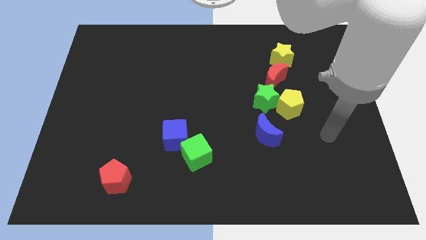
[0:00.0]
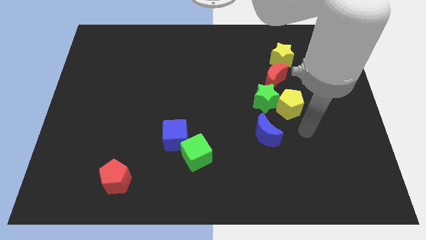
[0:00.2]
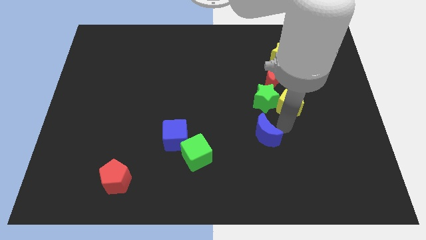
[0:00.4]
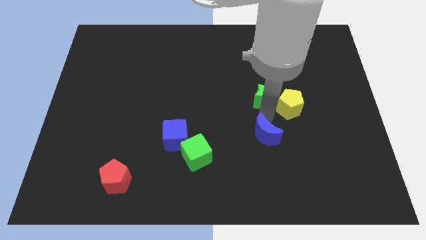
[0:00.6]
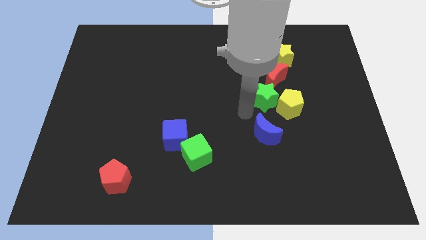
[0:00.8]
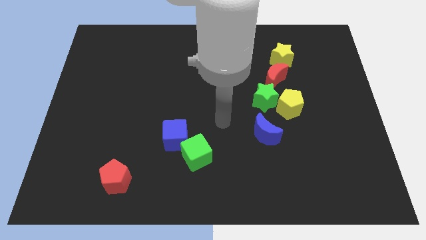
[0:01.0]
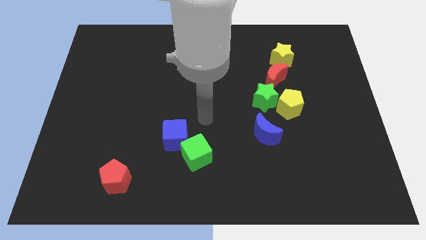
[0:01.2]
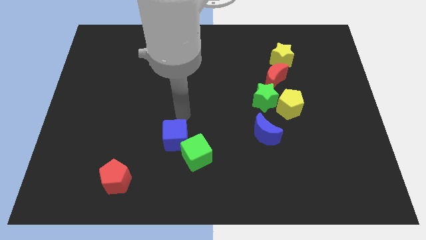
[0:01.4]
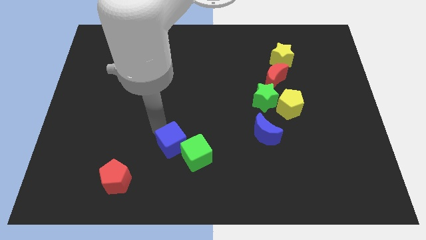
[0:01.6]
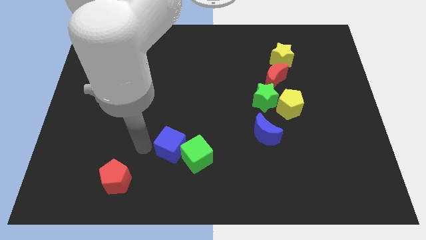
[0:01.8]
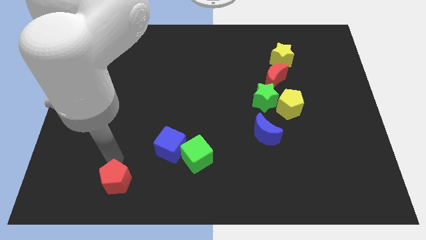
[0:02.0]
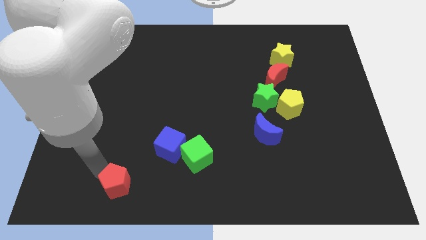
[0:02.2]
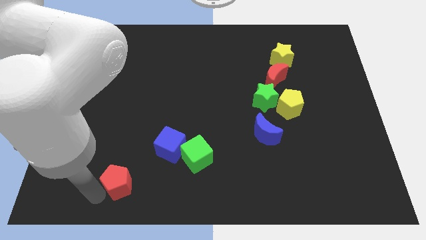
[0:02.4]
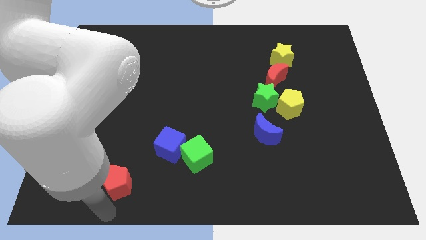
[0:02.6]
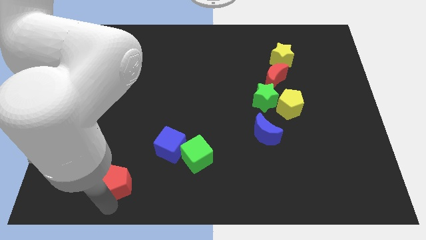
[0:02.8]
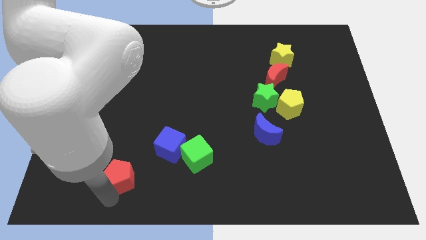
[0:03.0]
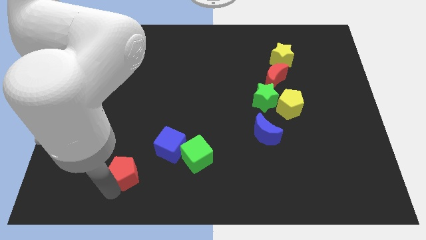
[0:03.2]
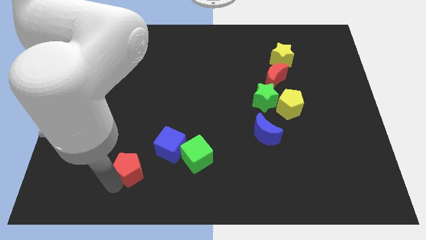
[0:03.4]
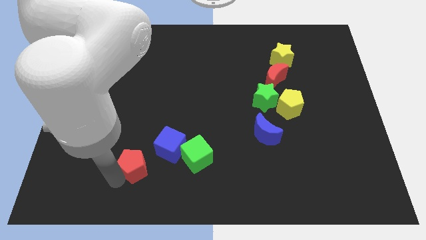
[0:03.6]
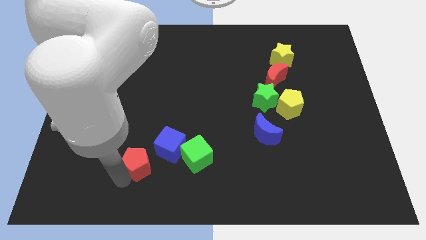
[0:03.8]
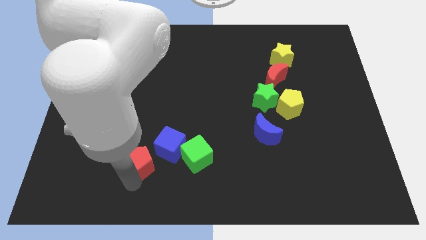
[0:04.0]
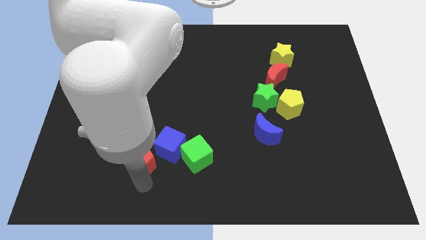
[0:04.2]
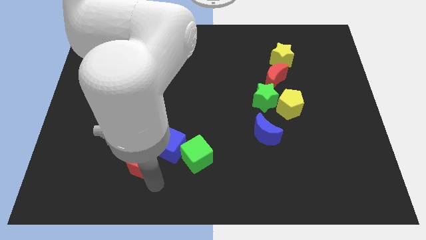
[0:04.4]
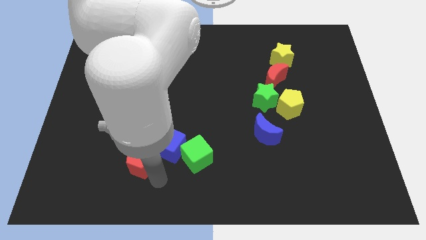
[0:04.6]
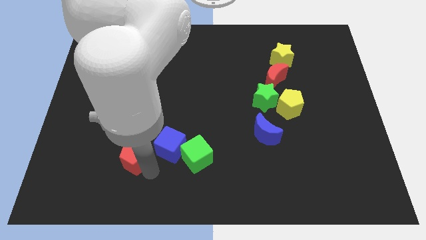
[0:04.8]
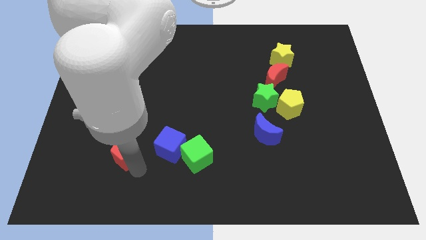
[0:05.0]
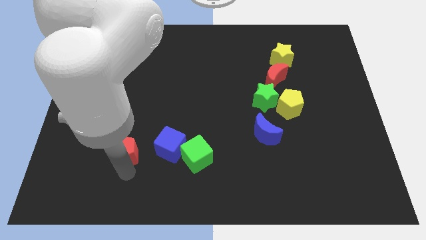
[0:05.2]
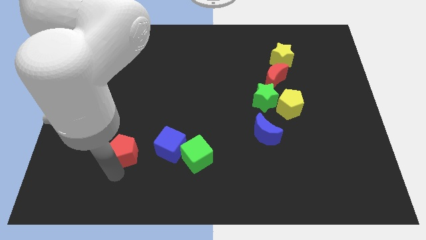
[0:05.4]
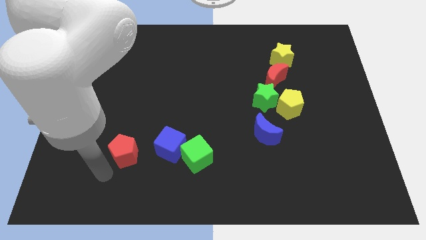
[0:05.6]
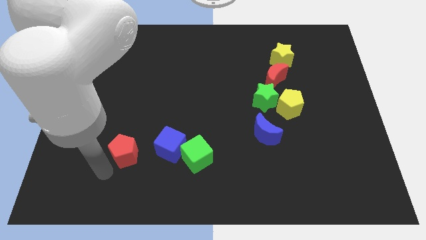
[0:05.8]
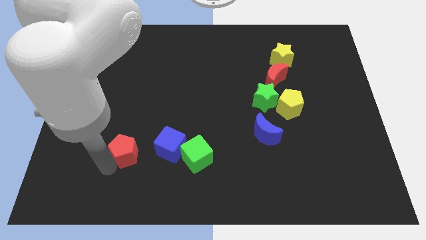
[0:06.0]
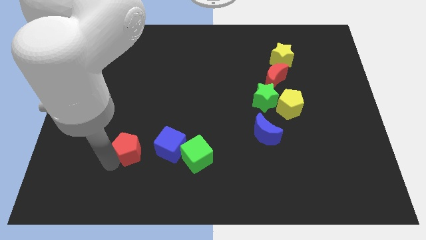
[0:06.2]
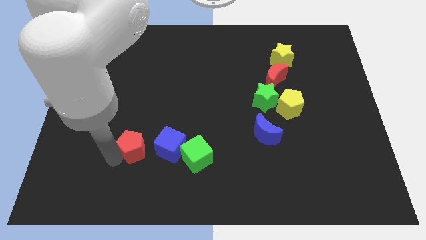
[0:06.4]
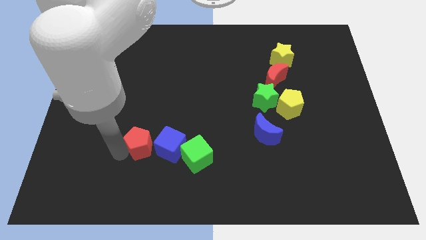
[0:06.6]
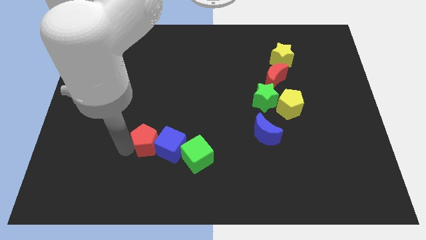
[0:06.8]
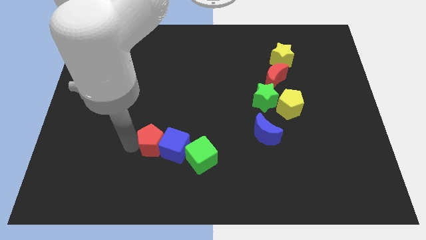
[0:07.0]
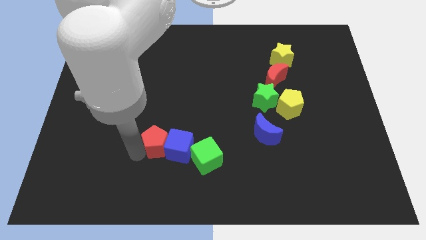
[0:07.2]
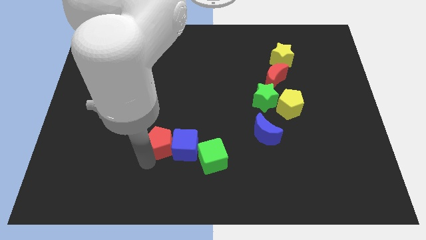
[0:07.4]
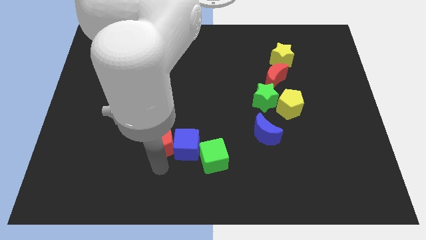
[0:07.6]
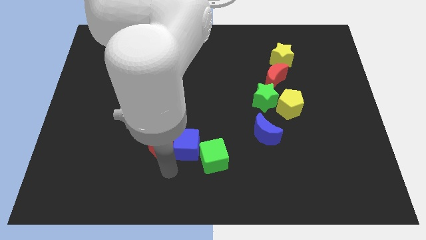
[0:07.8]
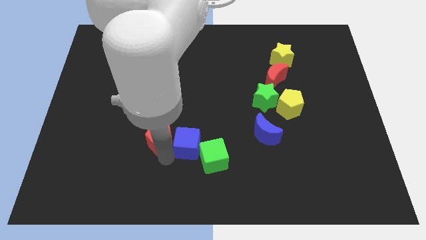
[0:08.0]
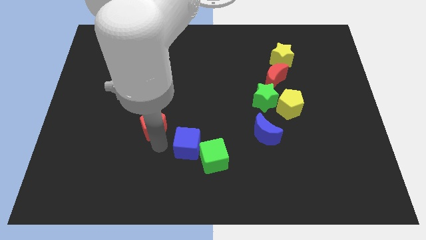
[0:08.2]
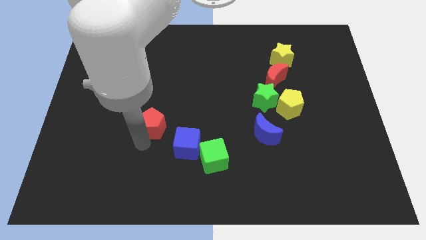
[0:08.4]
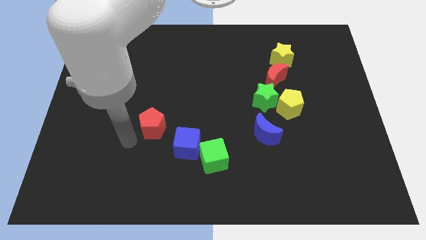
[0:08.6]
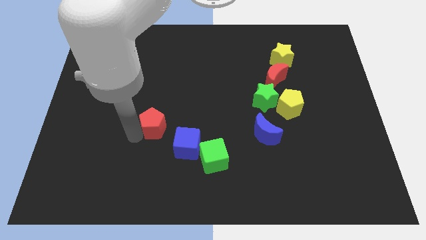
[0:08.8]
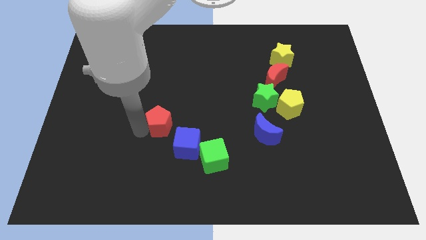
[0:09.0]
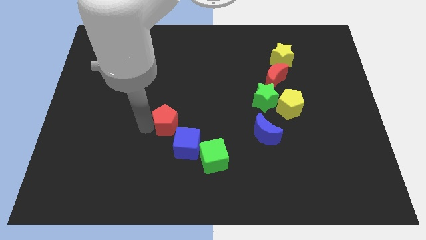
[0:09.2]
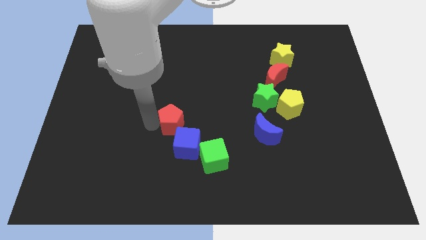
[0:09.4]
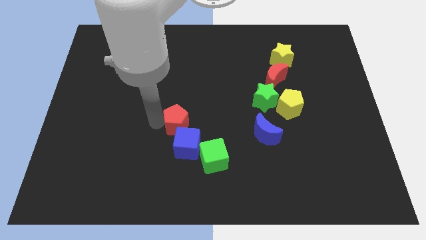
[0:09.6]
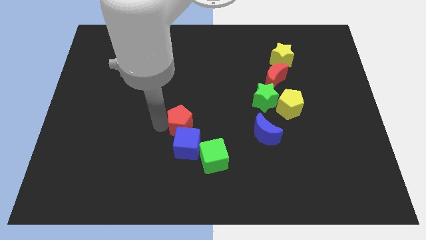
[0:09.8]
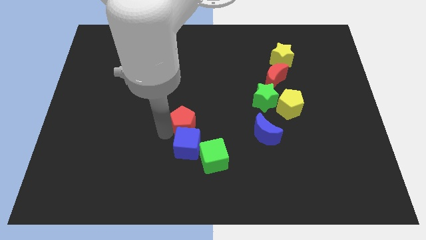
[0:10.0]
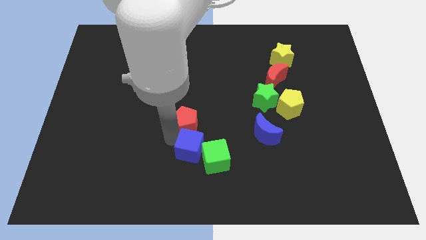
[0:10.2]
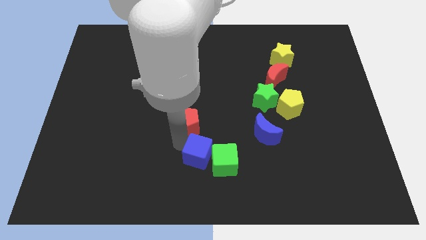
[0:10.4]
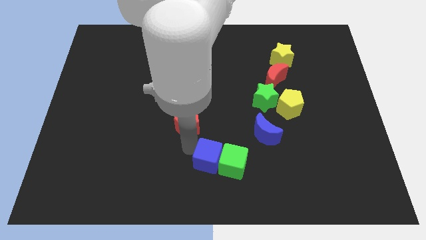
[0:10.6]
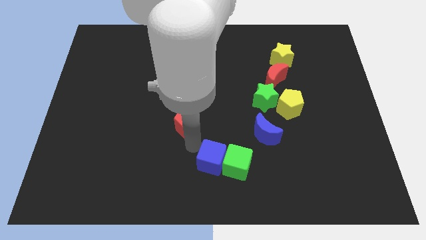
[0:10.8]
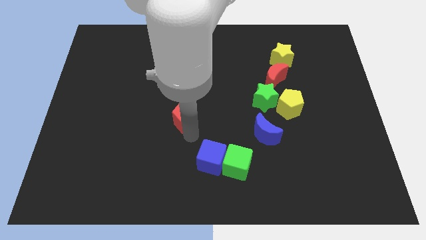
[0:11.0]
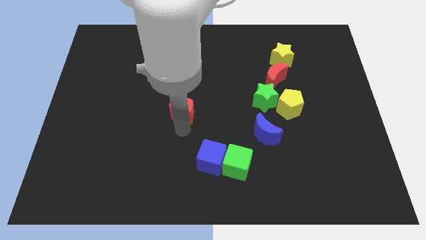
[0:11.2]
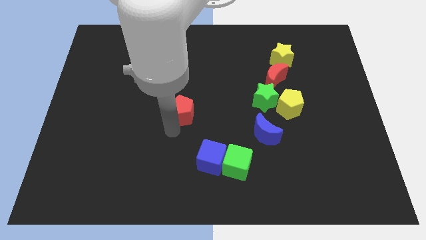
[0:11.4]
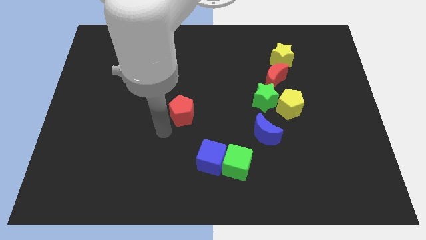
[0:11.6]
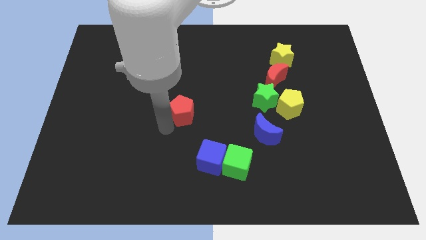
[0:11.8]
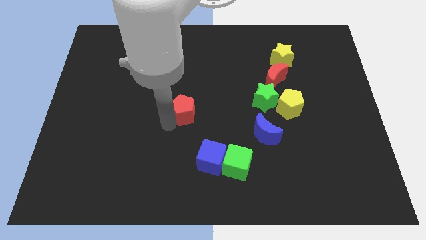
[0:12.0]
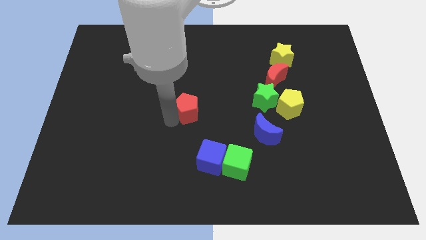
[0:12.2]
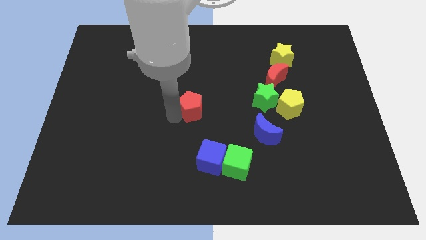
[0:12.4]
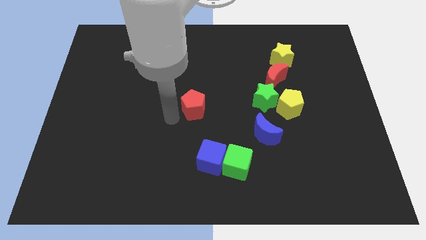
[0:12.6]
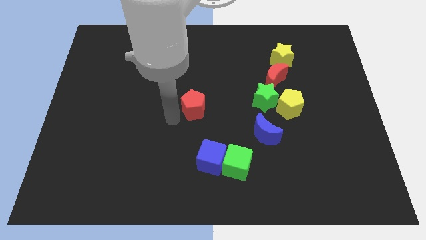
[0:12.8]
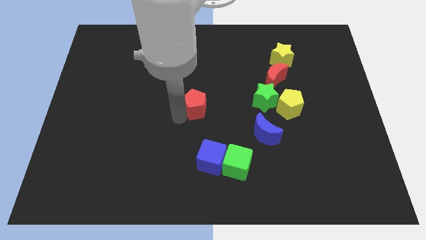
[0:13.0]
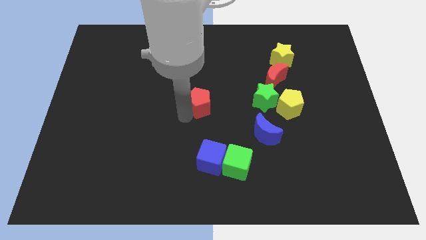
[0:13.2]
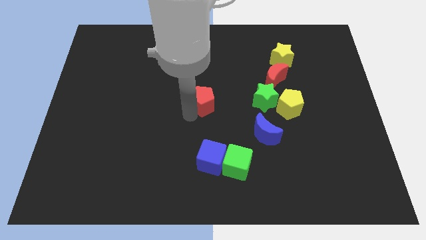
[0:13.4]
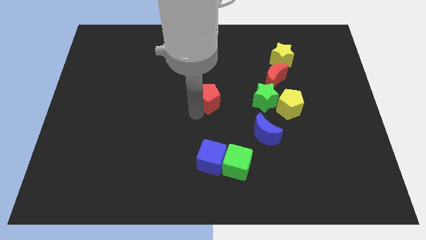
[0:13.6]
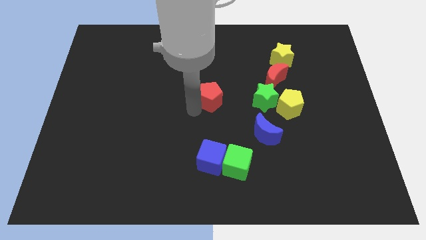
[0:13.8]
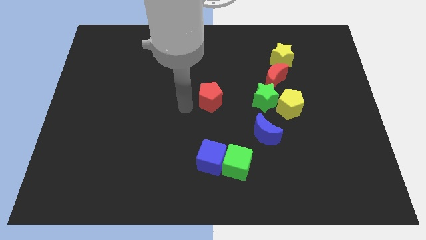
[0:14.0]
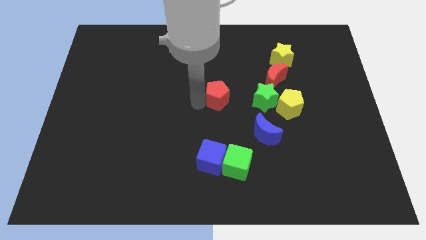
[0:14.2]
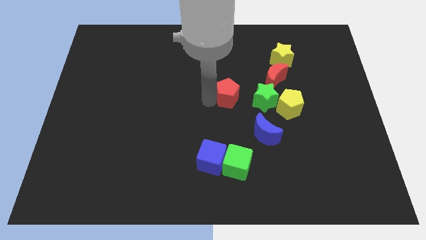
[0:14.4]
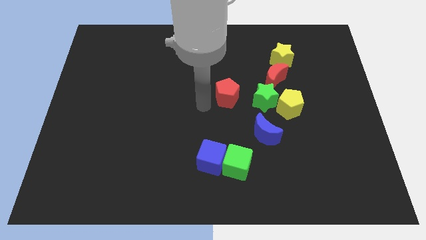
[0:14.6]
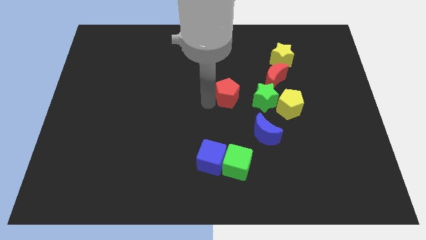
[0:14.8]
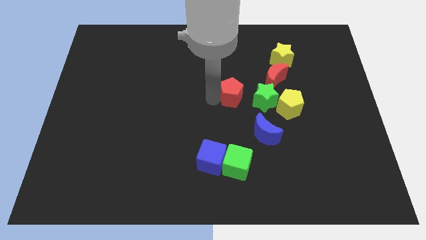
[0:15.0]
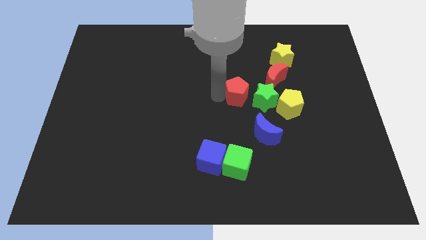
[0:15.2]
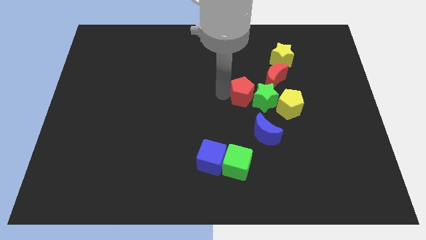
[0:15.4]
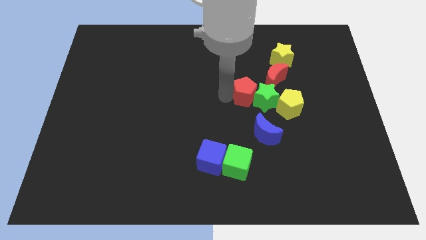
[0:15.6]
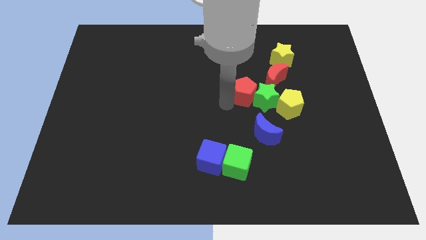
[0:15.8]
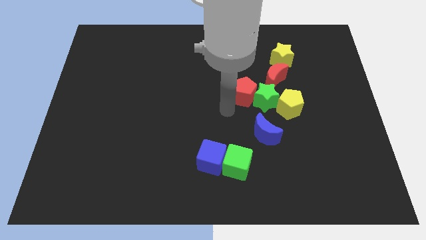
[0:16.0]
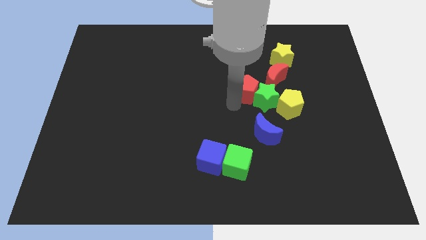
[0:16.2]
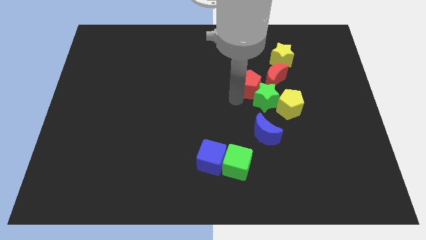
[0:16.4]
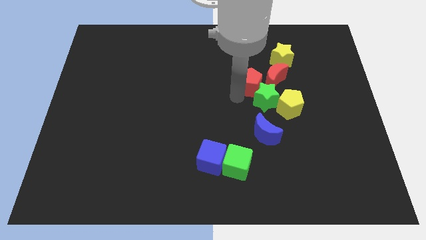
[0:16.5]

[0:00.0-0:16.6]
push the red pentagon next to the red moon
